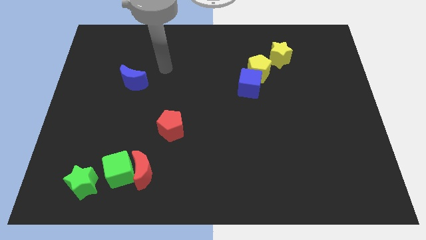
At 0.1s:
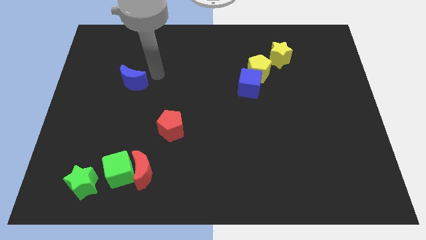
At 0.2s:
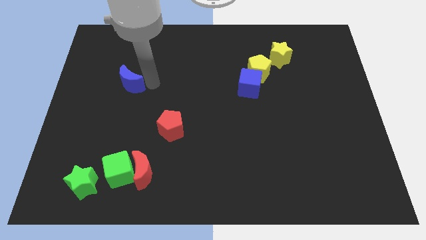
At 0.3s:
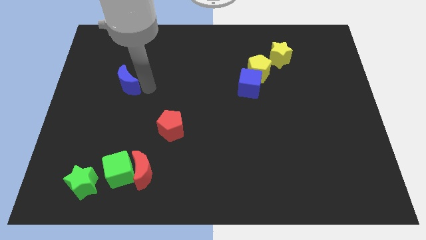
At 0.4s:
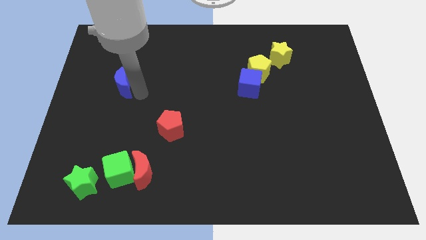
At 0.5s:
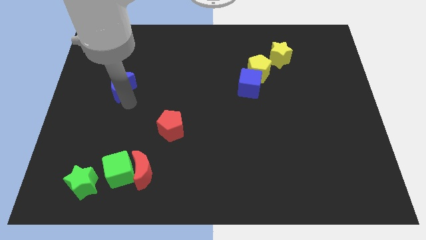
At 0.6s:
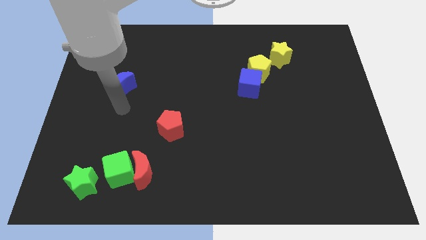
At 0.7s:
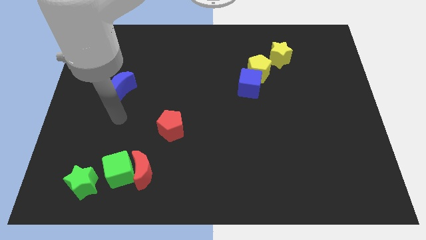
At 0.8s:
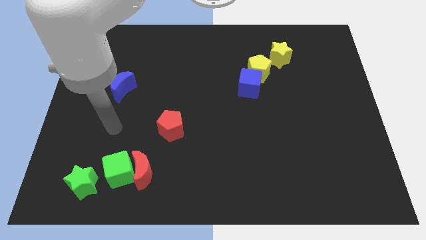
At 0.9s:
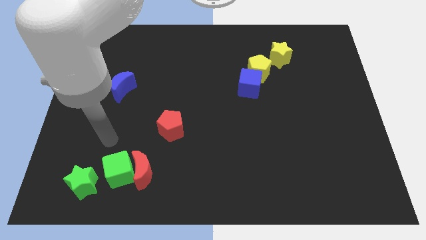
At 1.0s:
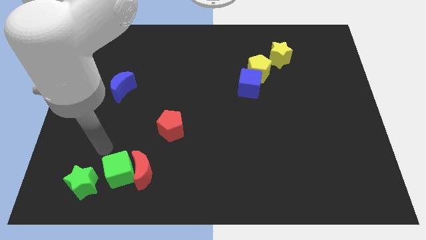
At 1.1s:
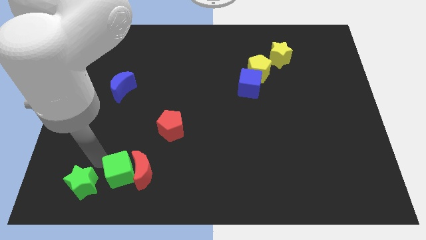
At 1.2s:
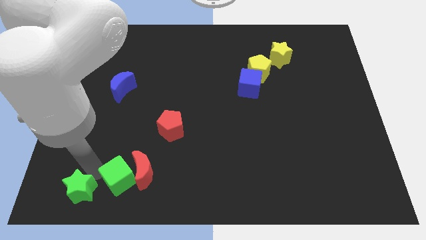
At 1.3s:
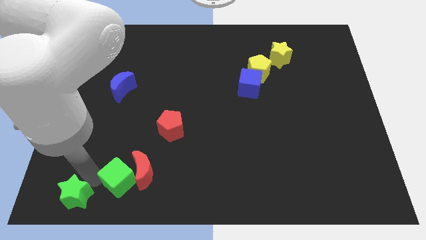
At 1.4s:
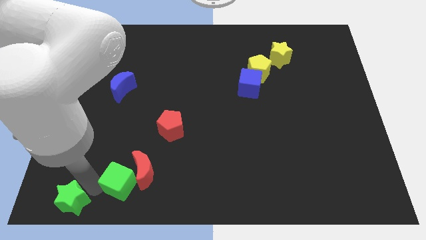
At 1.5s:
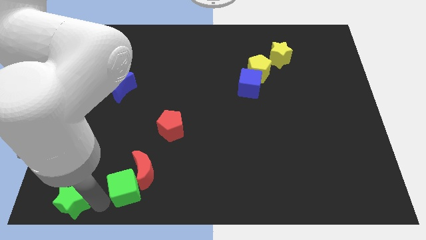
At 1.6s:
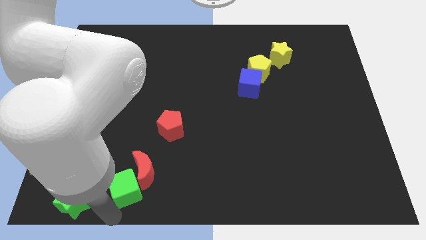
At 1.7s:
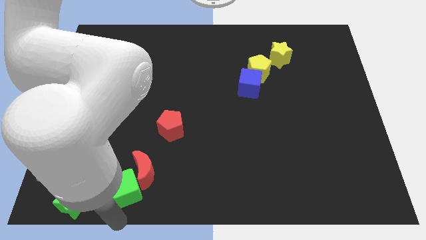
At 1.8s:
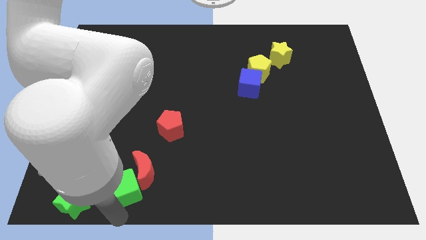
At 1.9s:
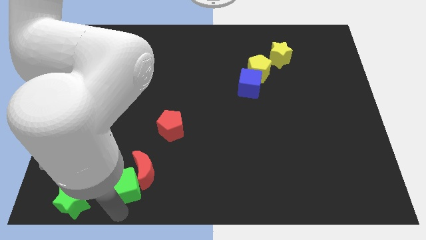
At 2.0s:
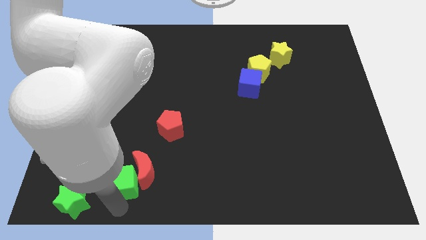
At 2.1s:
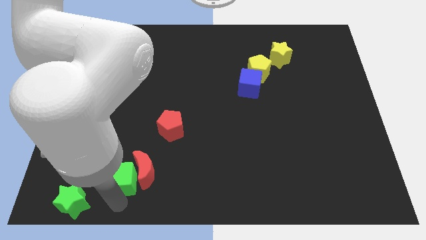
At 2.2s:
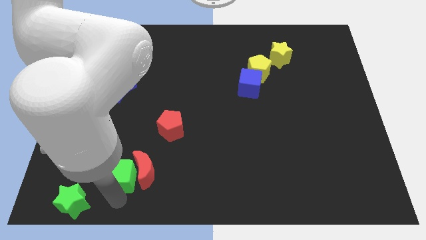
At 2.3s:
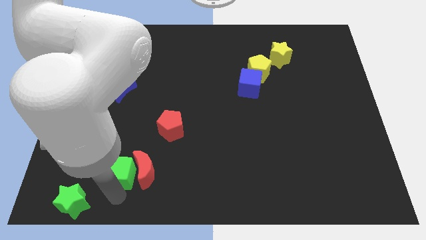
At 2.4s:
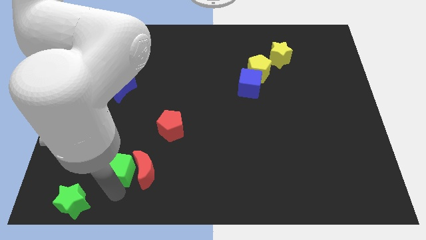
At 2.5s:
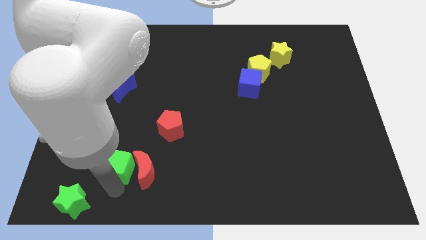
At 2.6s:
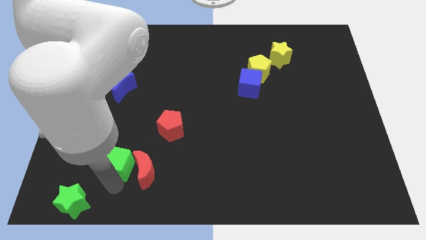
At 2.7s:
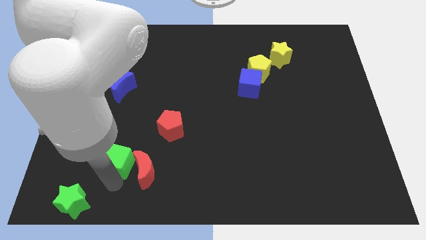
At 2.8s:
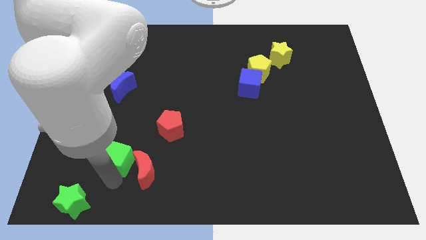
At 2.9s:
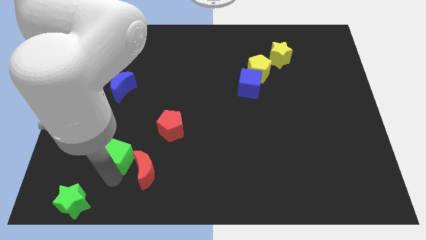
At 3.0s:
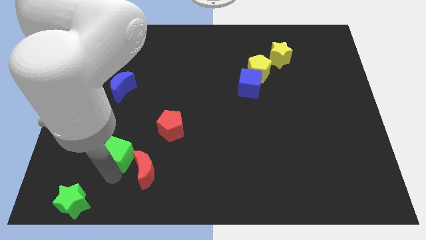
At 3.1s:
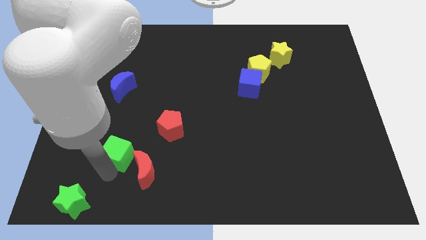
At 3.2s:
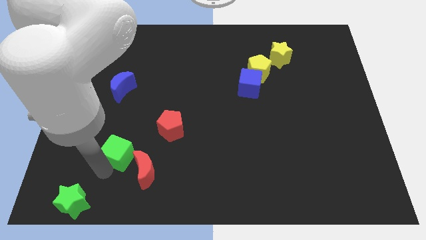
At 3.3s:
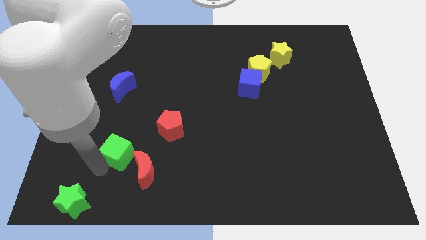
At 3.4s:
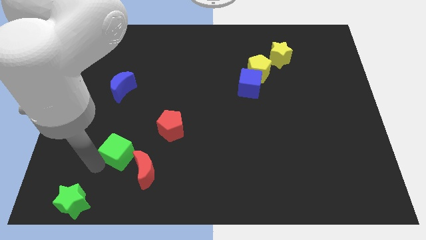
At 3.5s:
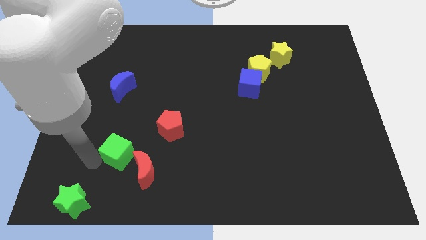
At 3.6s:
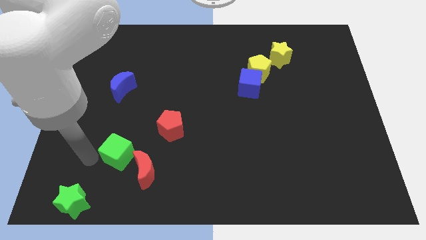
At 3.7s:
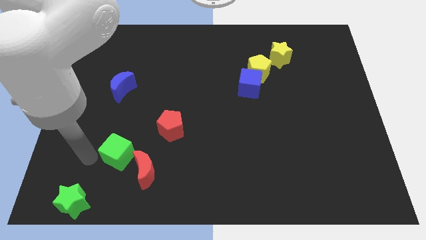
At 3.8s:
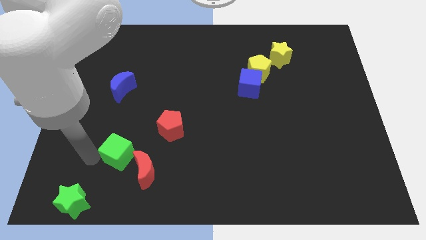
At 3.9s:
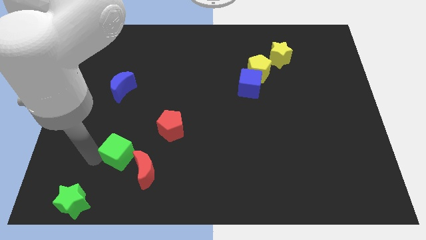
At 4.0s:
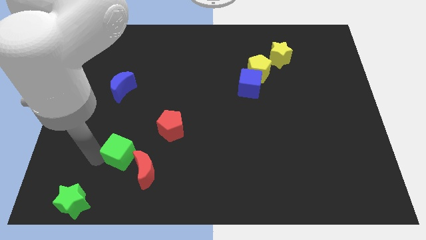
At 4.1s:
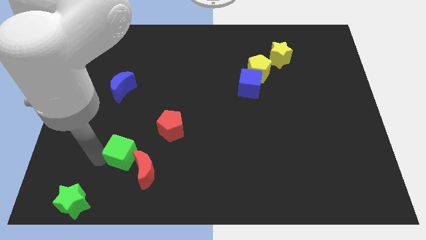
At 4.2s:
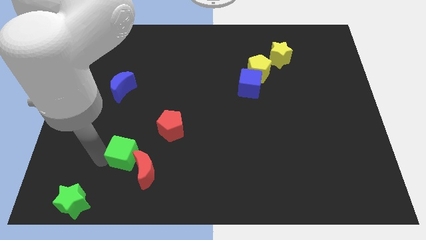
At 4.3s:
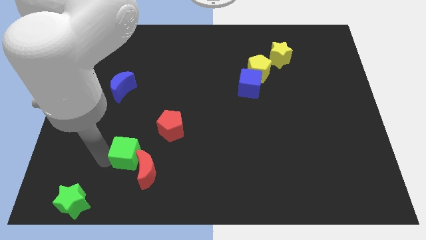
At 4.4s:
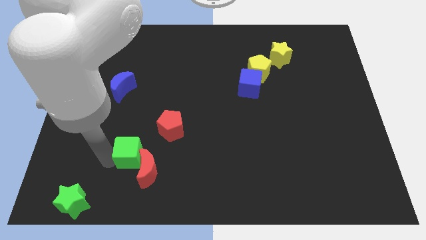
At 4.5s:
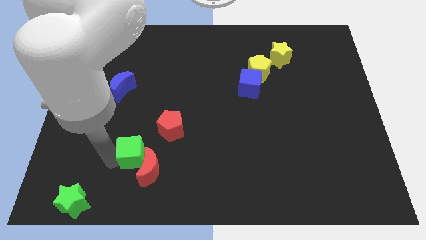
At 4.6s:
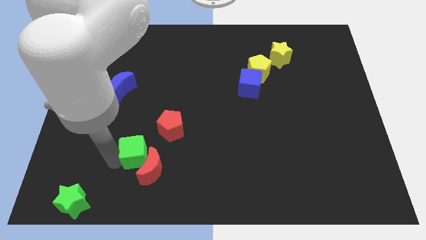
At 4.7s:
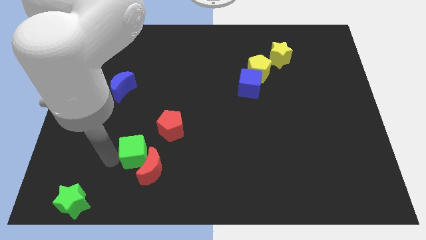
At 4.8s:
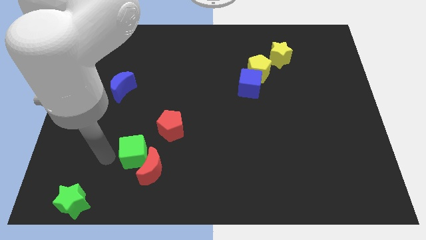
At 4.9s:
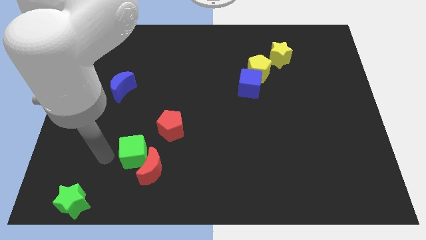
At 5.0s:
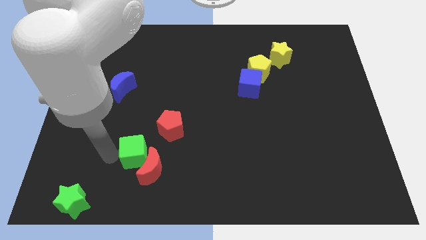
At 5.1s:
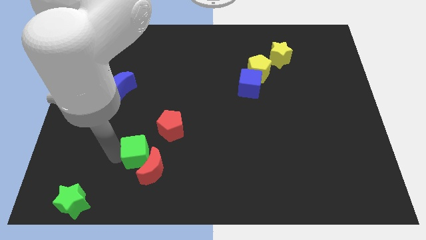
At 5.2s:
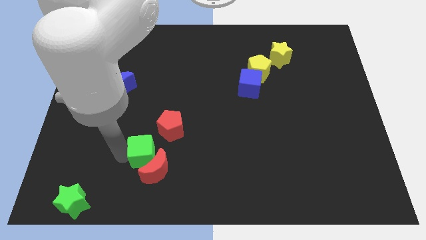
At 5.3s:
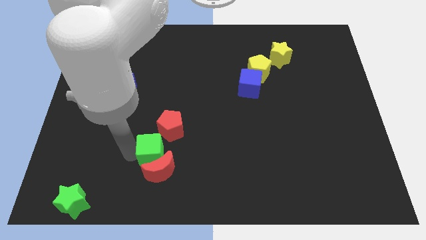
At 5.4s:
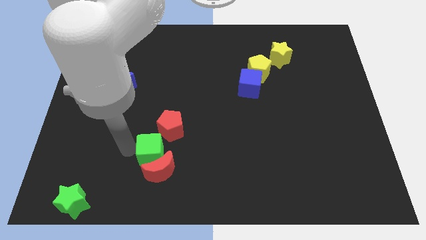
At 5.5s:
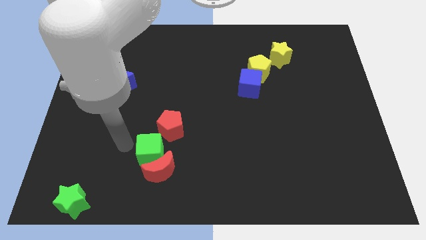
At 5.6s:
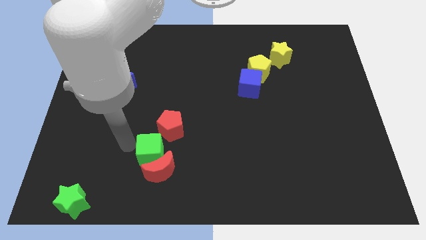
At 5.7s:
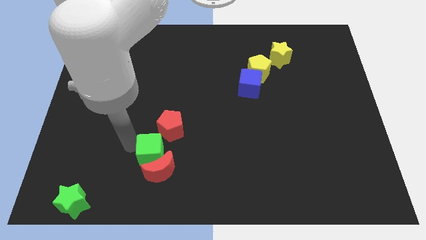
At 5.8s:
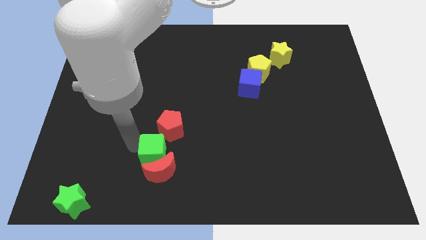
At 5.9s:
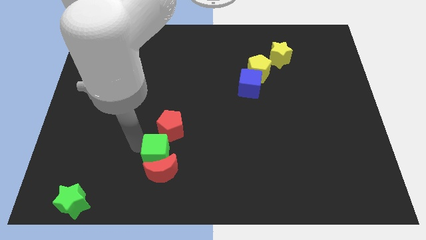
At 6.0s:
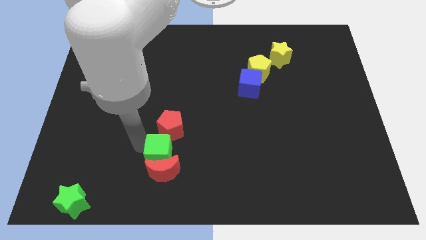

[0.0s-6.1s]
slide the green cube a bit to the right

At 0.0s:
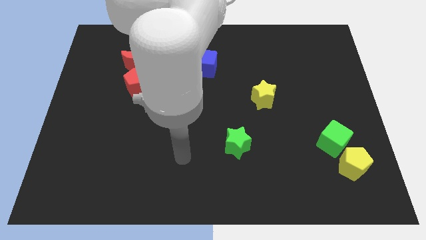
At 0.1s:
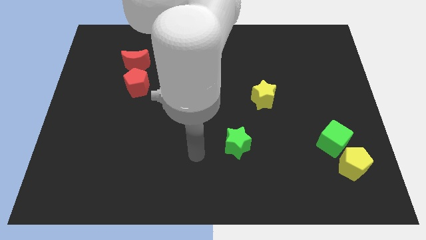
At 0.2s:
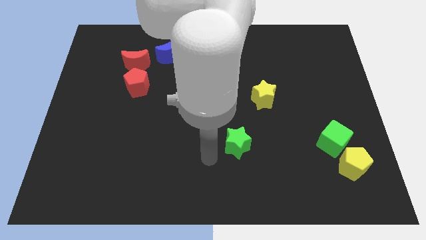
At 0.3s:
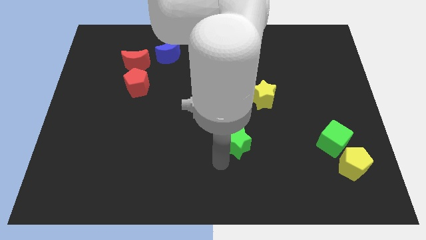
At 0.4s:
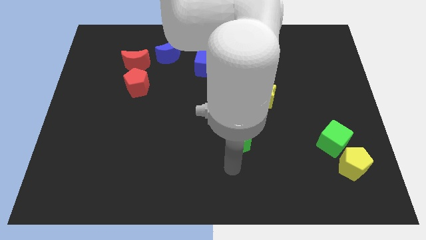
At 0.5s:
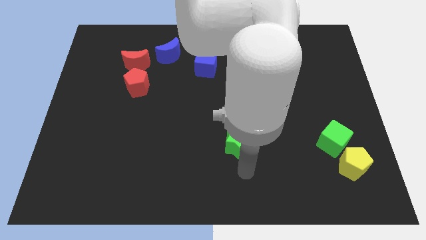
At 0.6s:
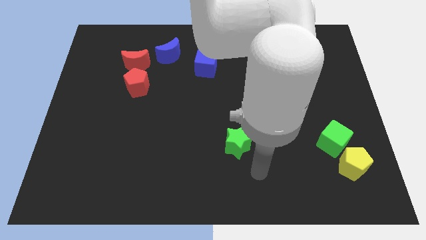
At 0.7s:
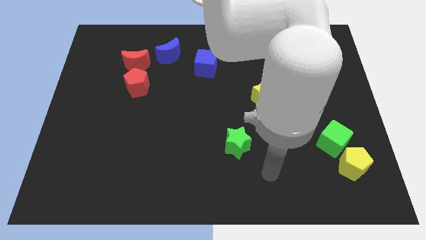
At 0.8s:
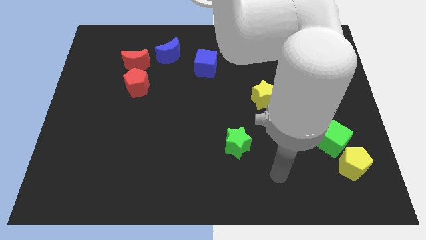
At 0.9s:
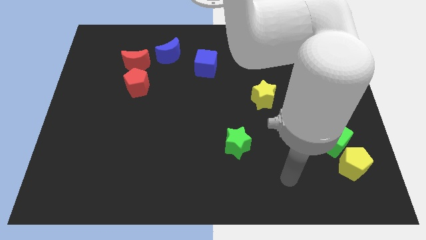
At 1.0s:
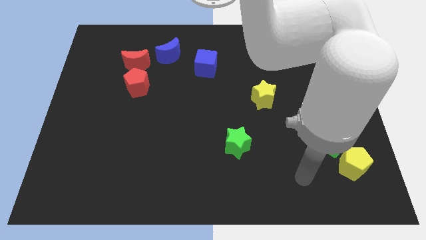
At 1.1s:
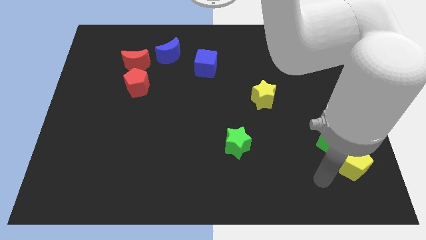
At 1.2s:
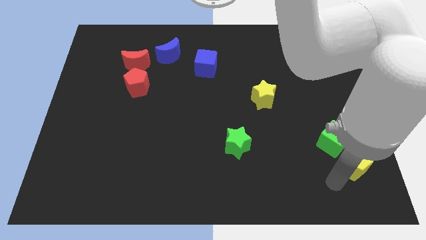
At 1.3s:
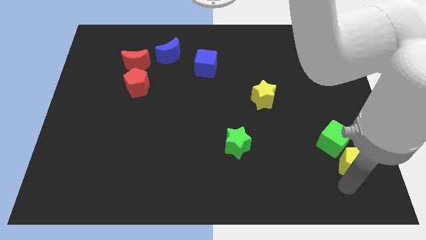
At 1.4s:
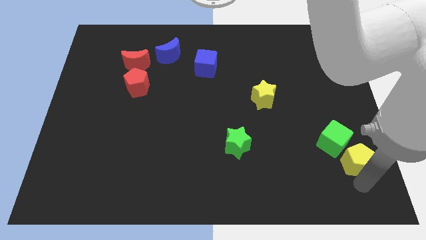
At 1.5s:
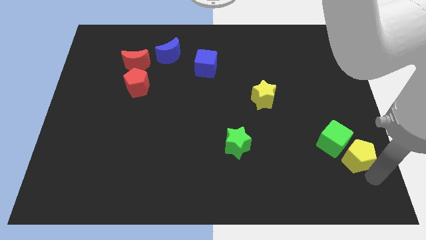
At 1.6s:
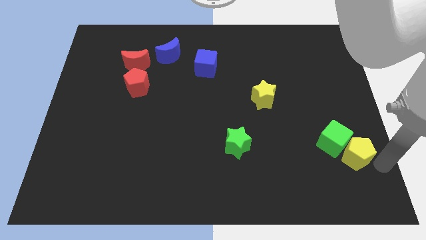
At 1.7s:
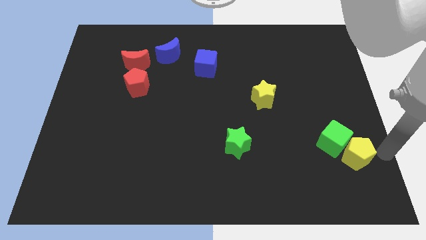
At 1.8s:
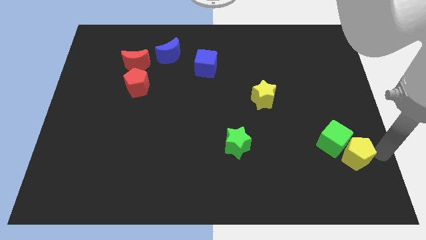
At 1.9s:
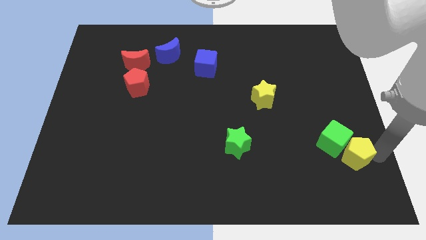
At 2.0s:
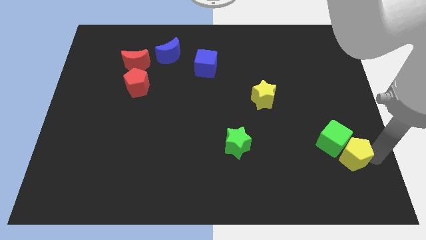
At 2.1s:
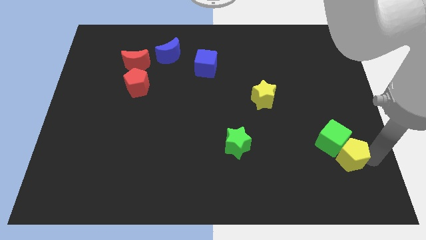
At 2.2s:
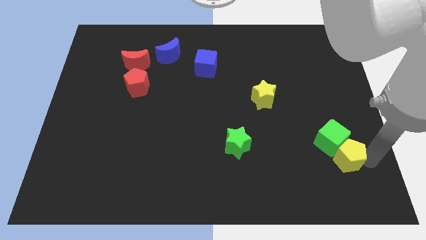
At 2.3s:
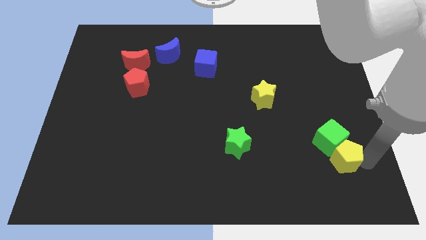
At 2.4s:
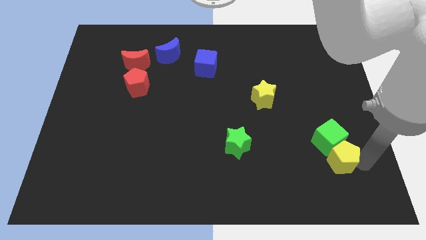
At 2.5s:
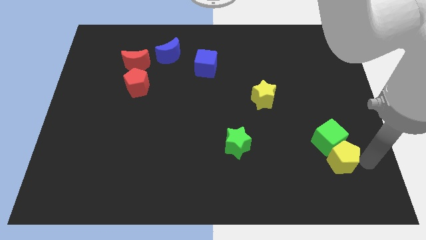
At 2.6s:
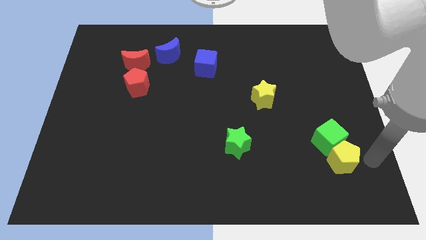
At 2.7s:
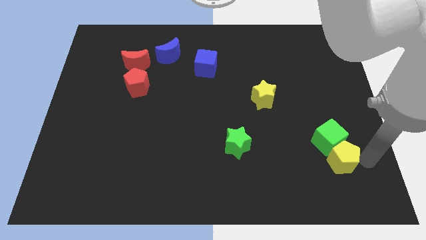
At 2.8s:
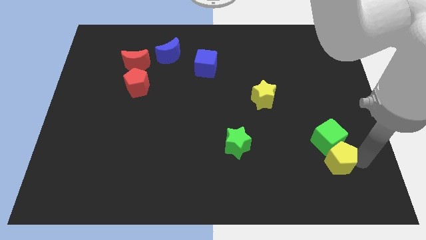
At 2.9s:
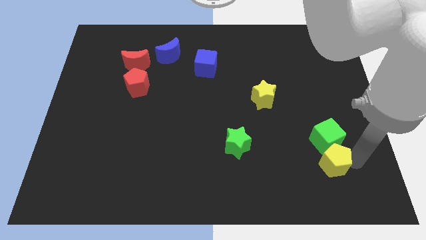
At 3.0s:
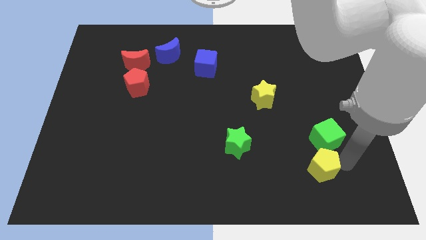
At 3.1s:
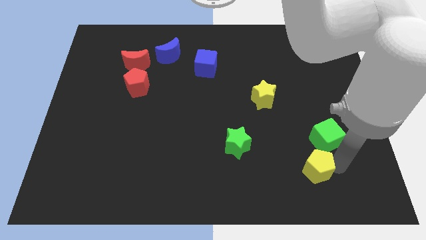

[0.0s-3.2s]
push the yellow pentagon left a little bit
